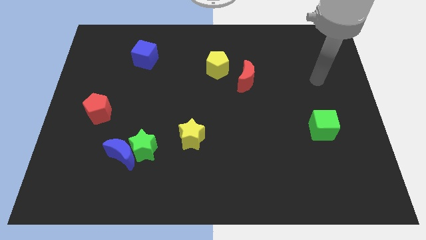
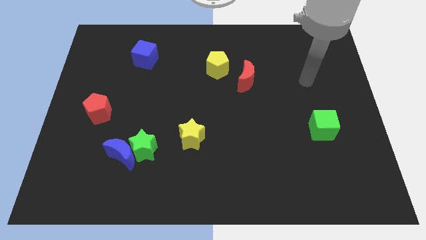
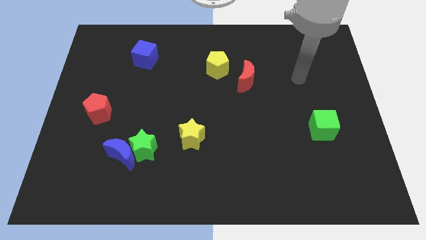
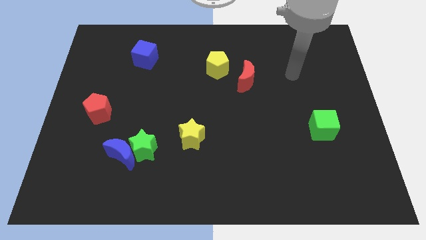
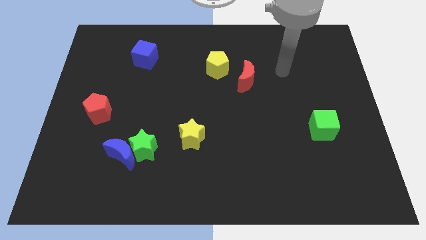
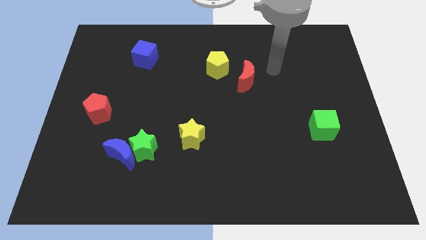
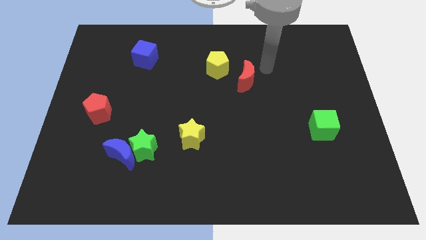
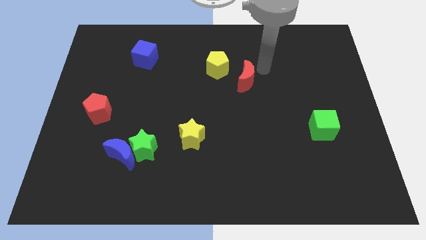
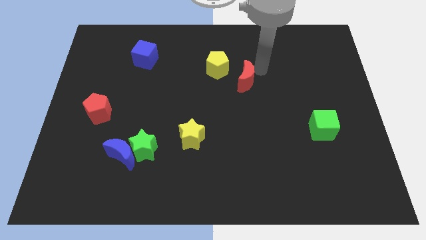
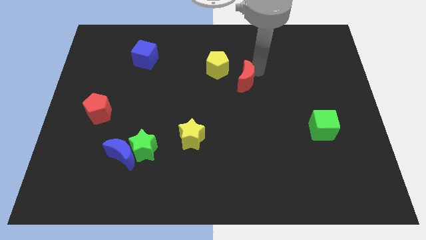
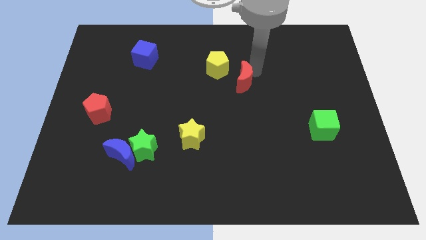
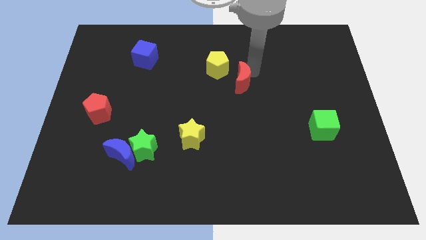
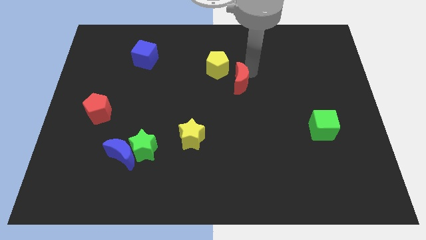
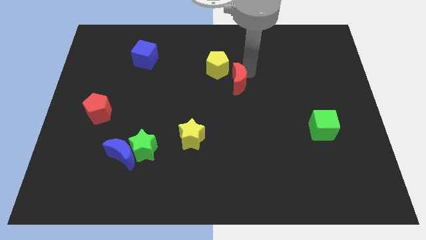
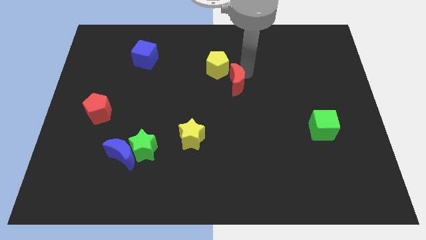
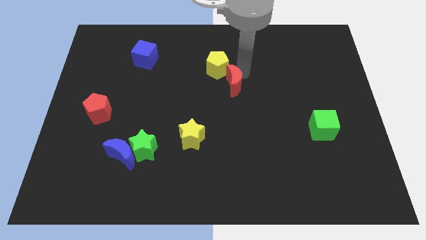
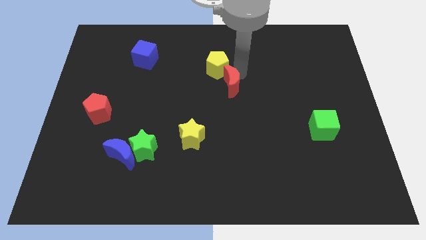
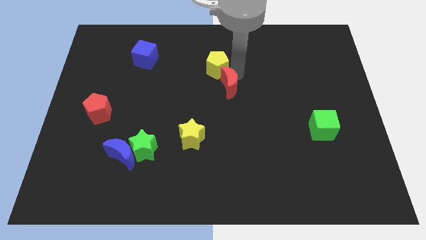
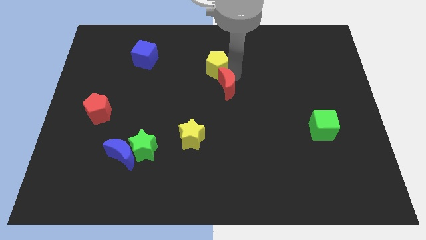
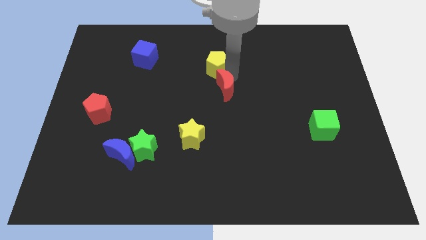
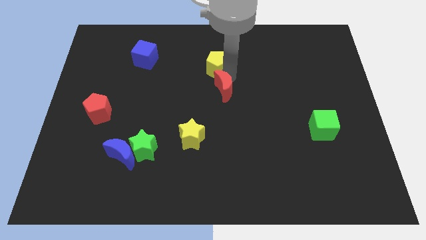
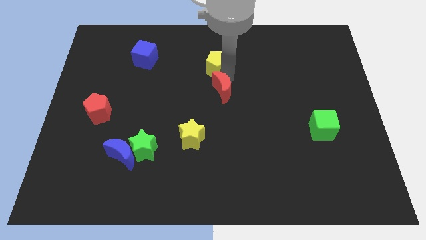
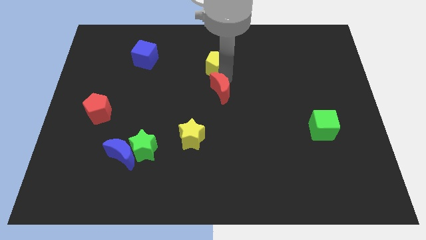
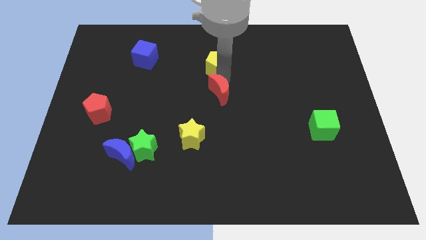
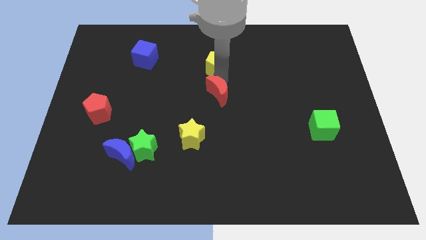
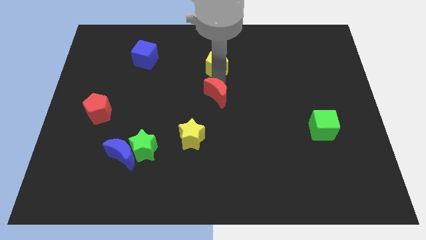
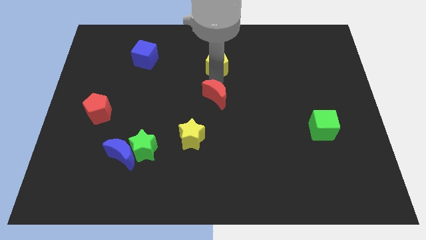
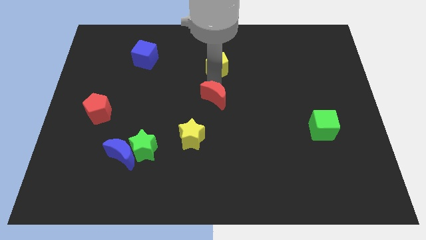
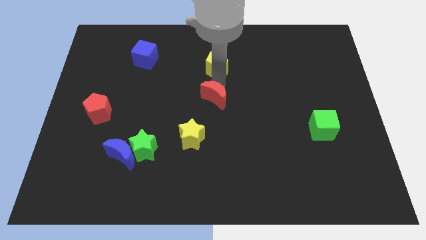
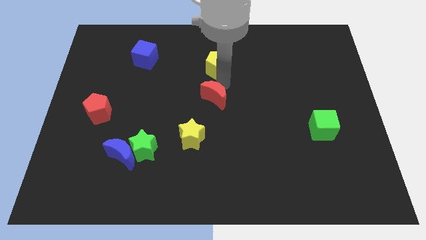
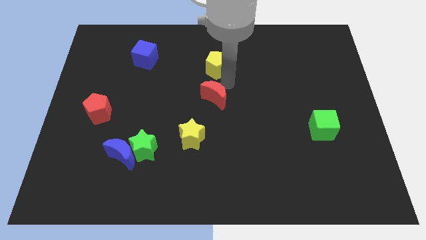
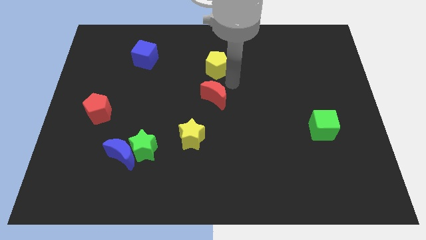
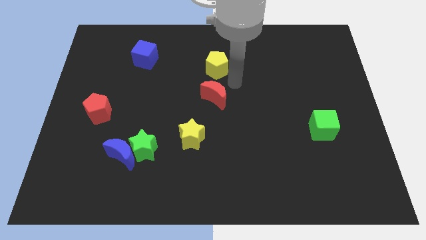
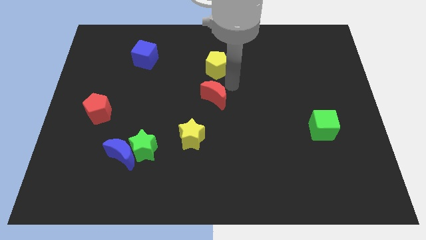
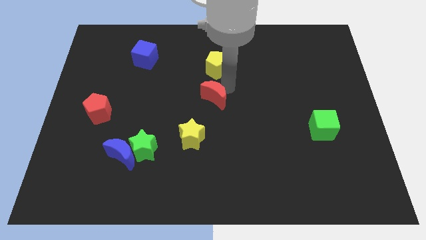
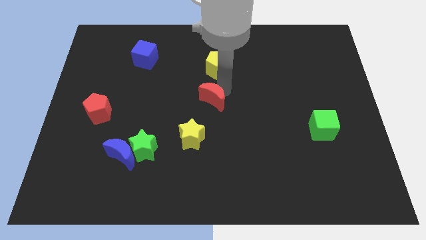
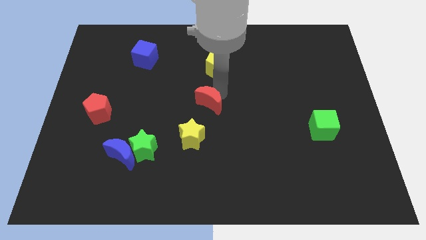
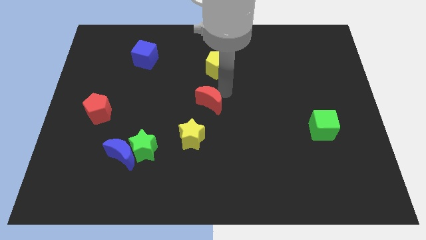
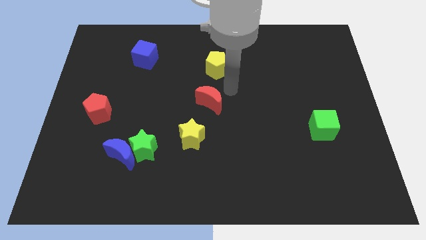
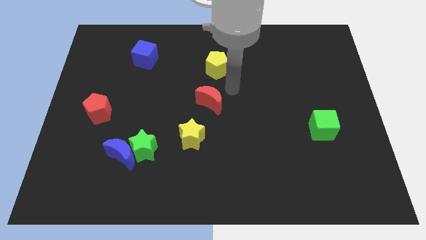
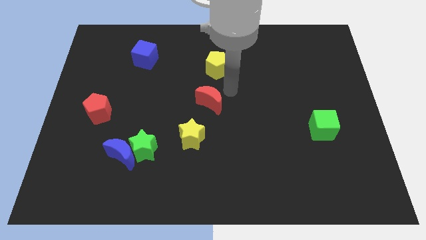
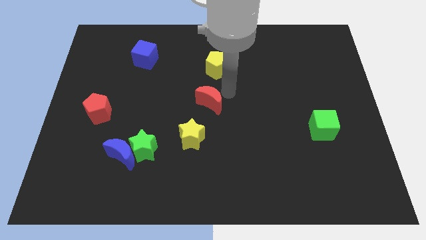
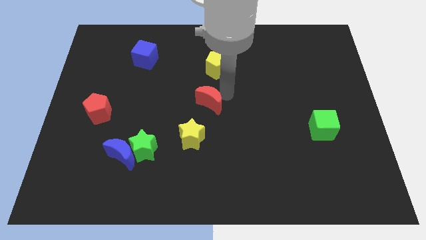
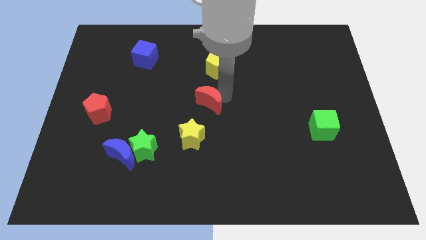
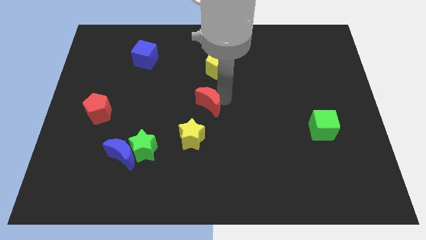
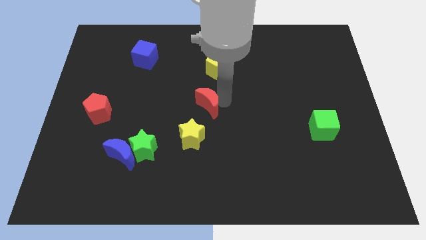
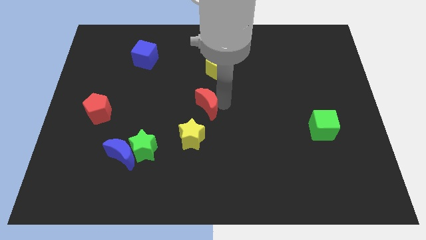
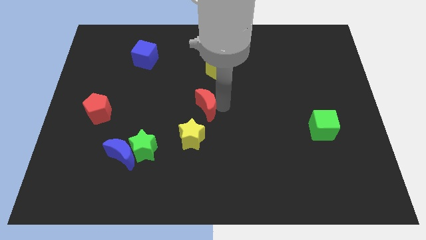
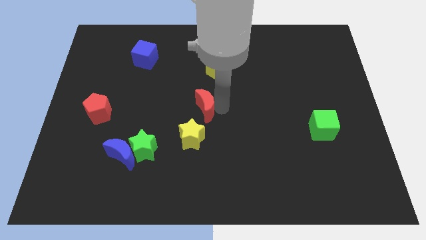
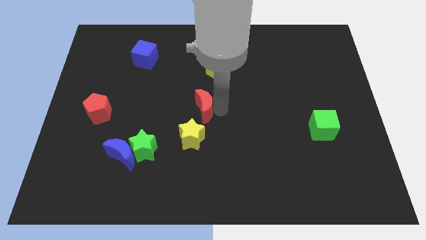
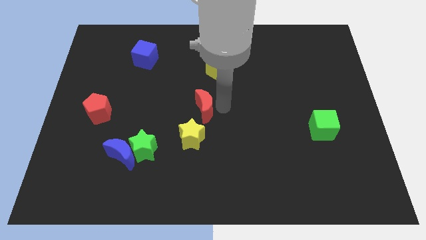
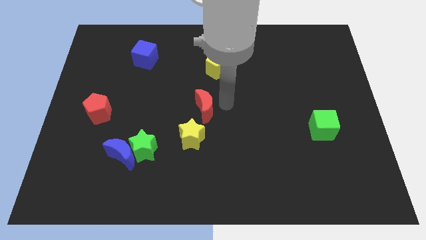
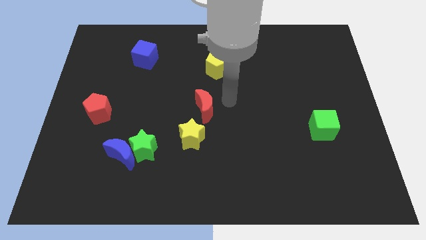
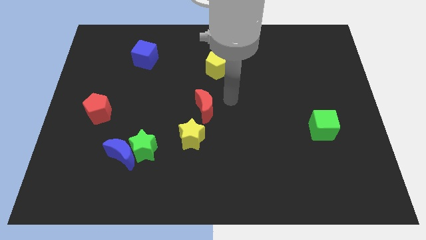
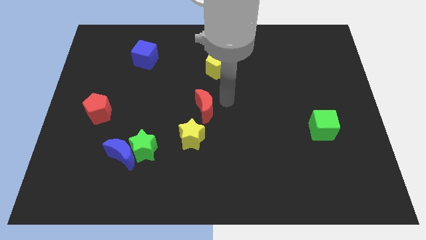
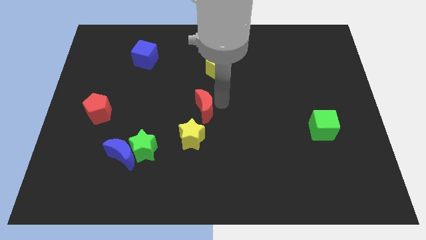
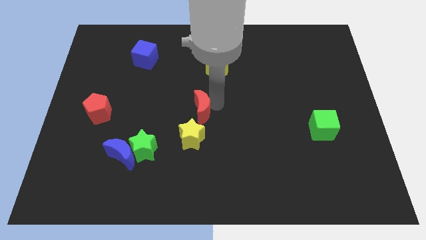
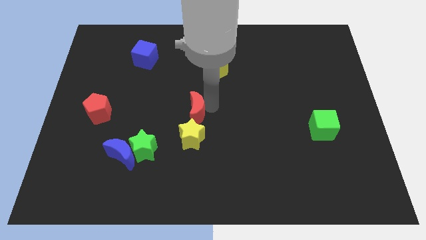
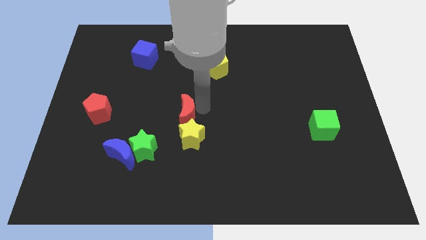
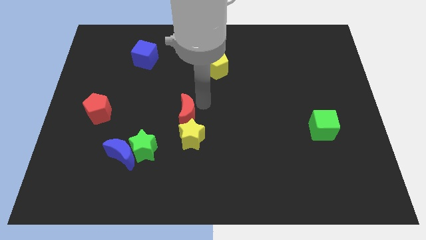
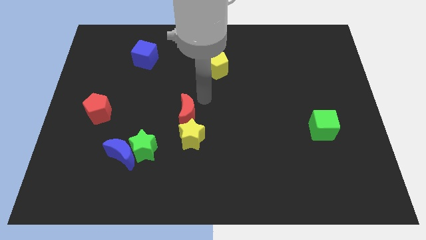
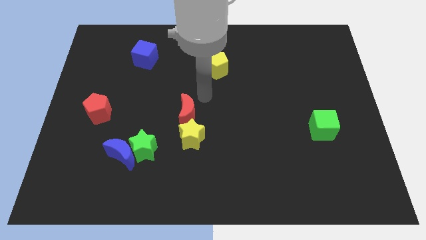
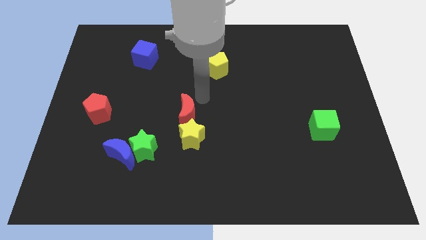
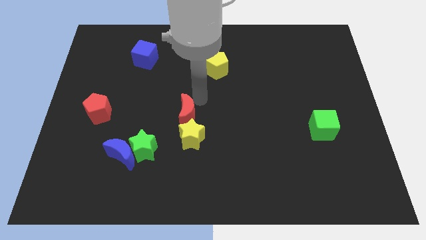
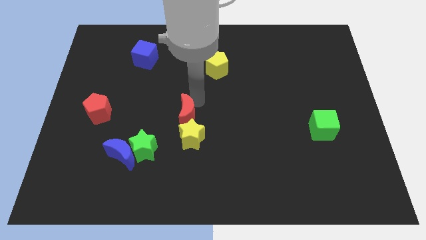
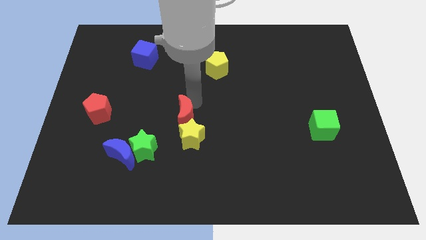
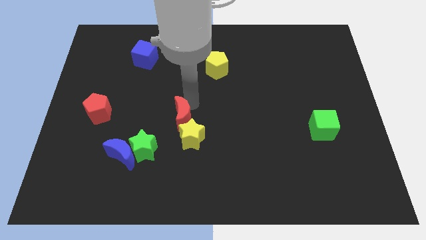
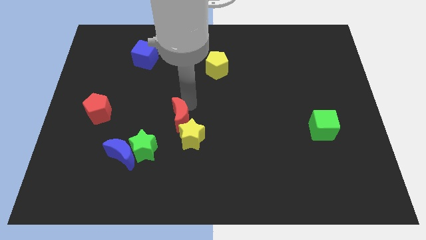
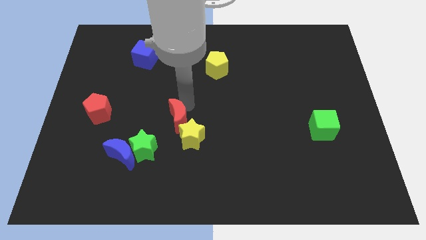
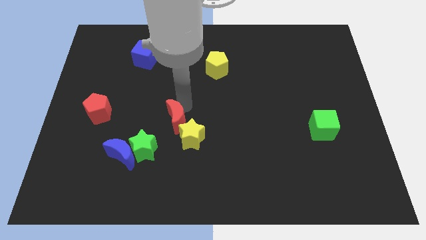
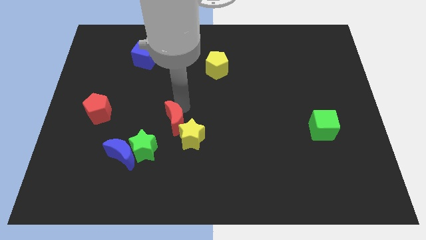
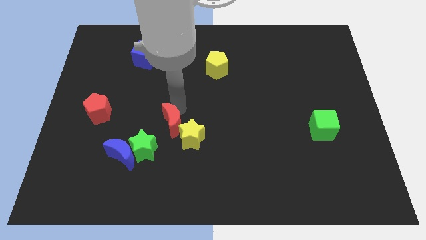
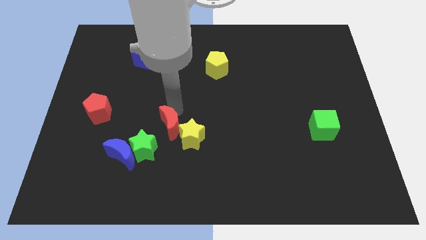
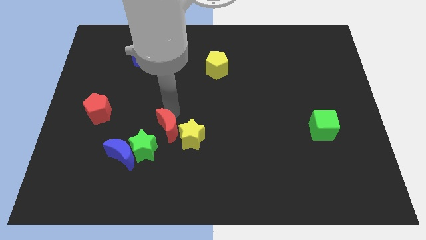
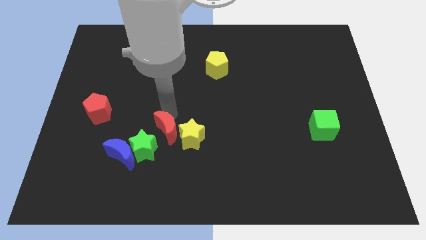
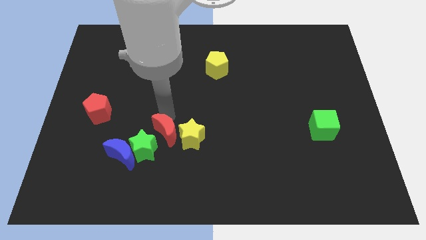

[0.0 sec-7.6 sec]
push the red moon to the green star
